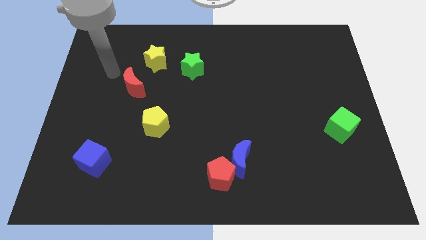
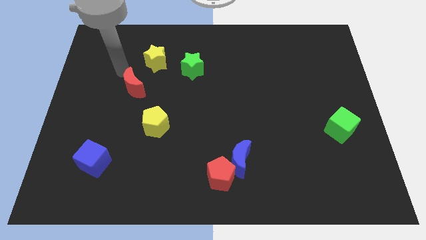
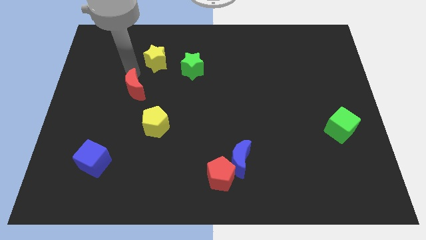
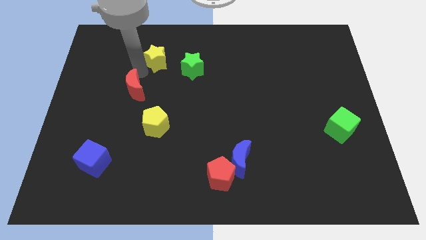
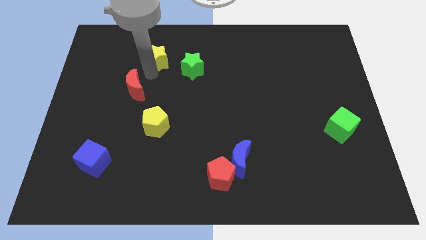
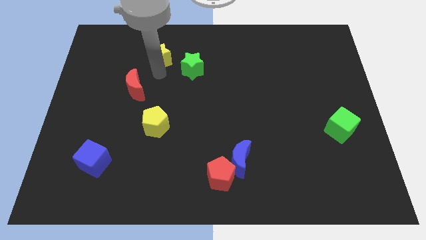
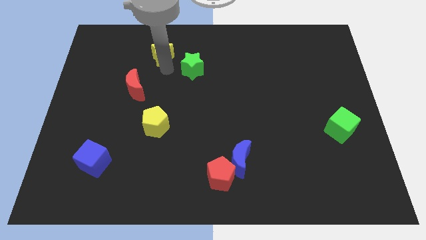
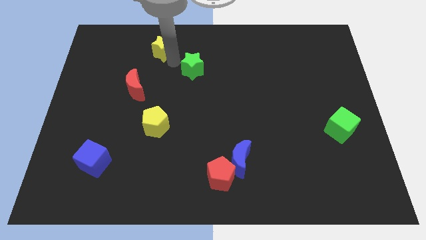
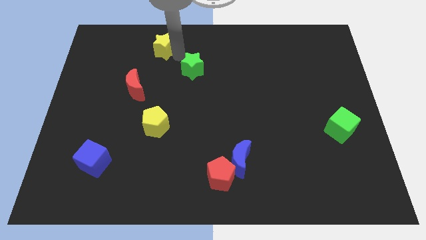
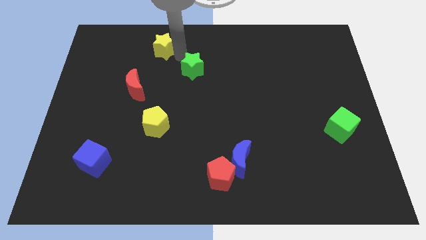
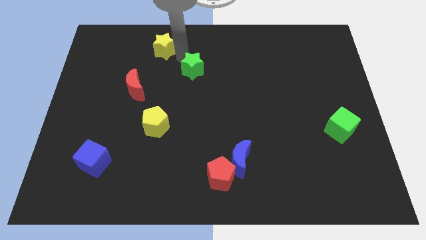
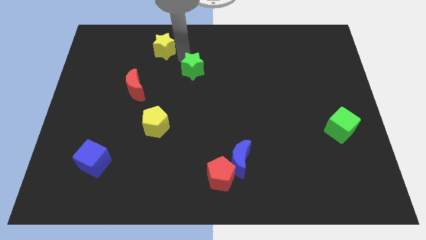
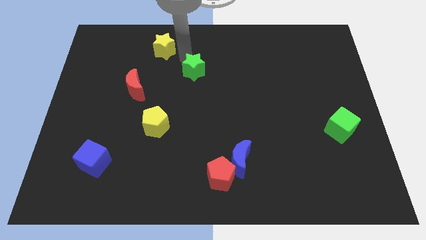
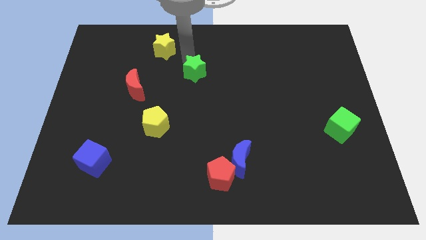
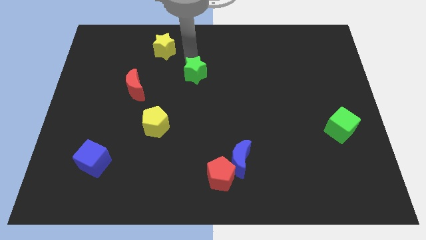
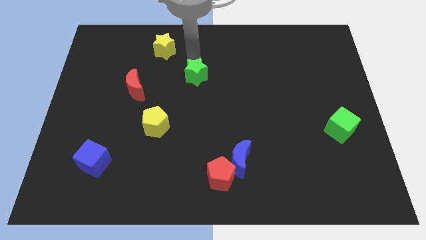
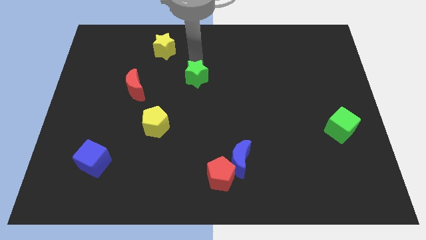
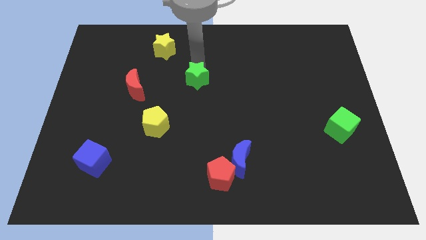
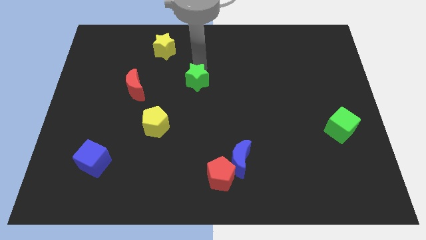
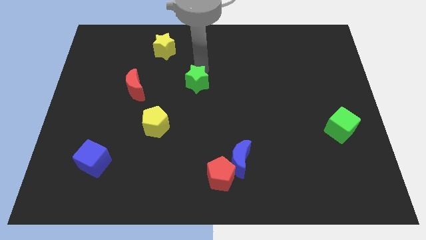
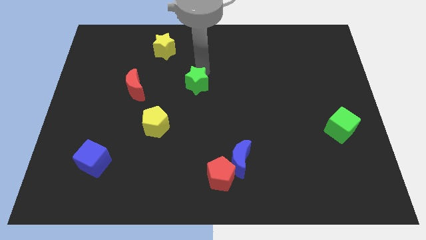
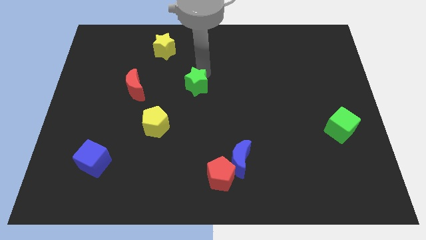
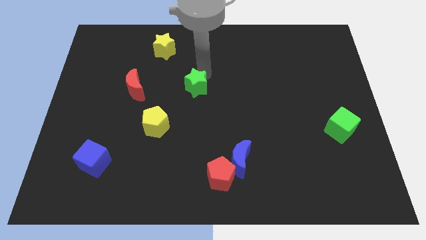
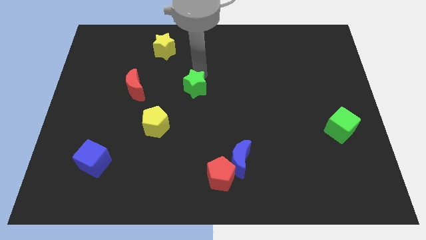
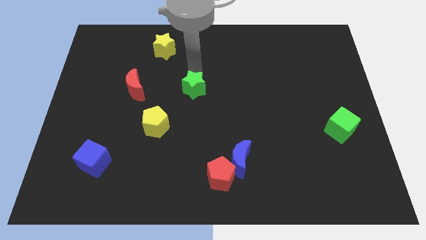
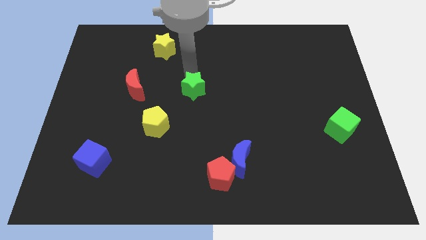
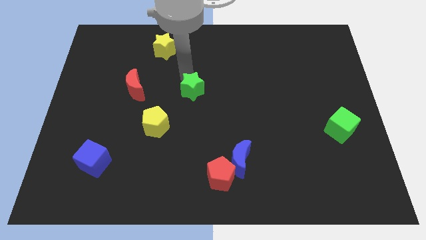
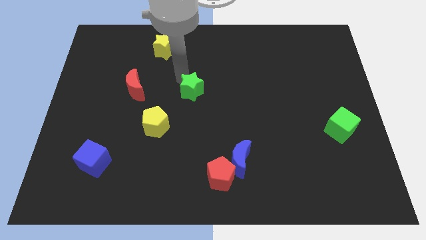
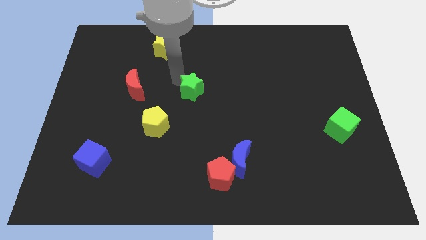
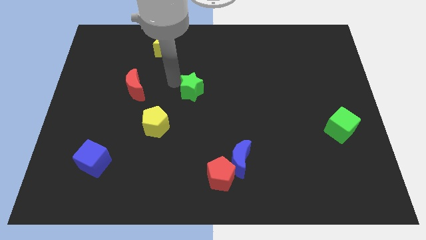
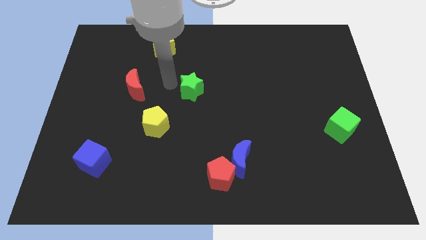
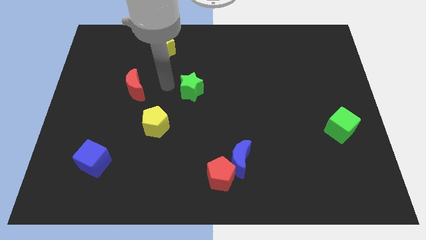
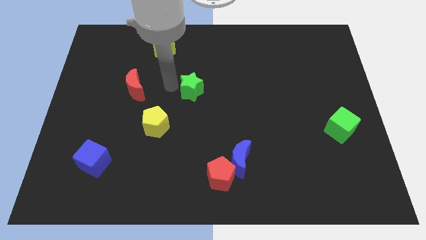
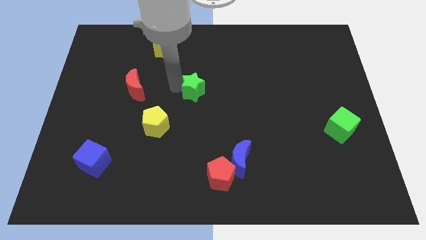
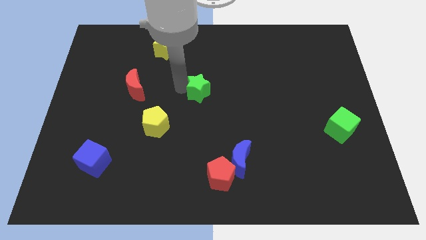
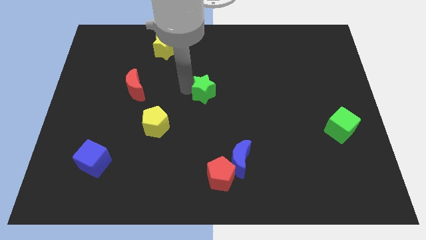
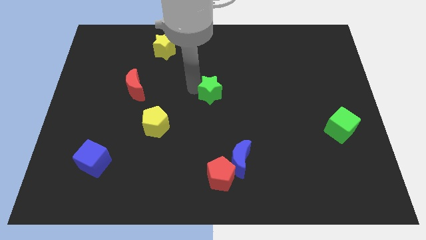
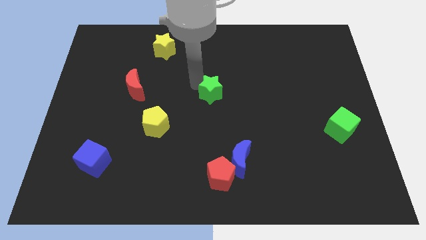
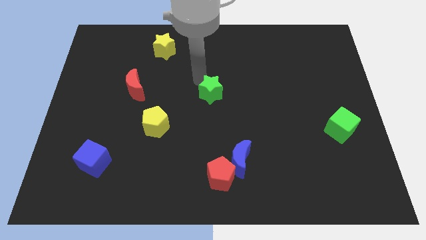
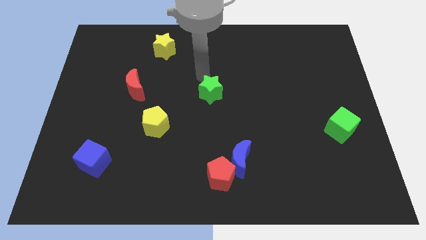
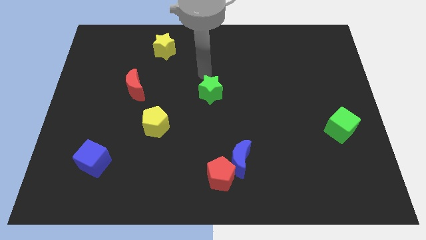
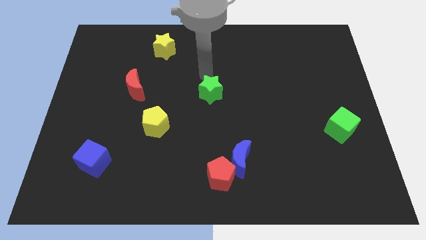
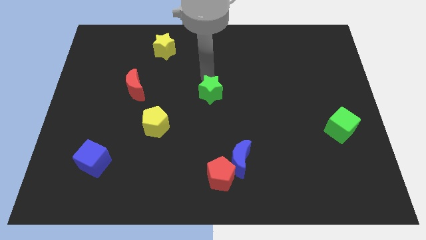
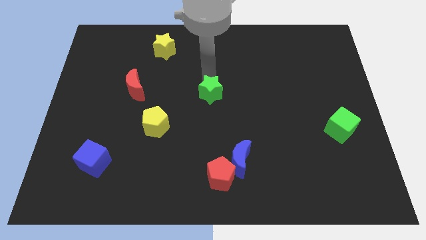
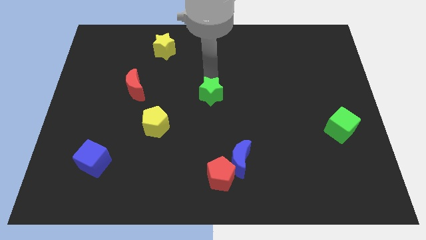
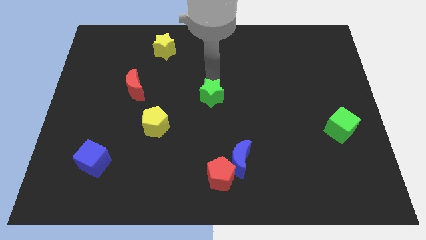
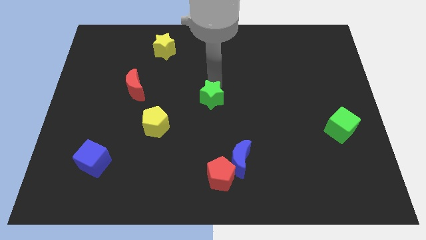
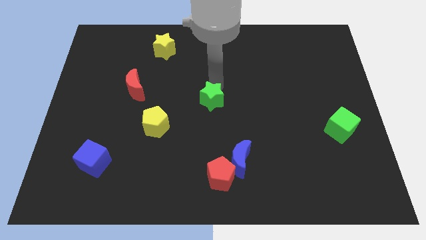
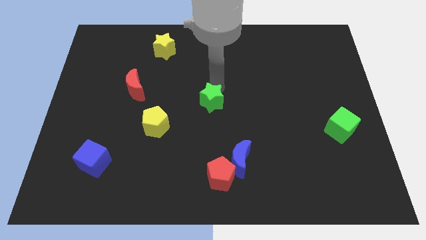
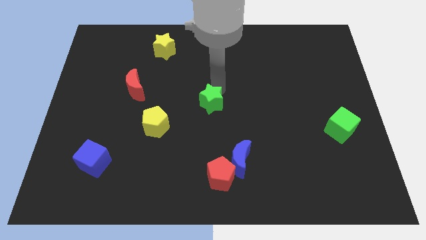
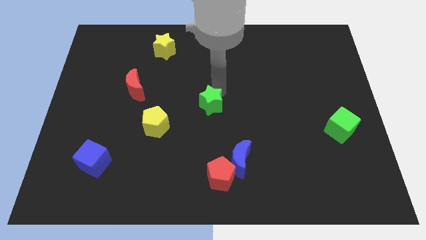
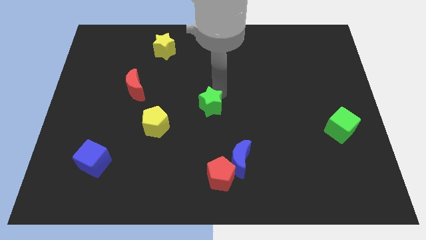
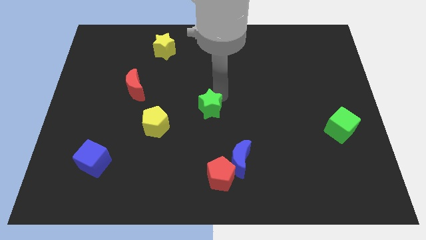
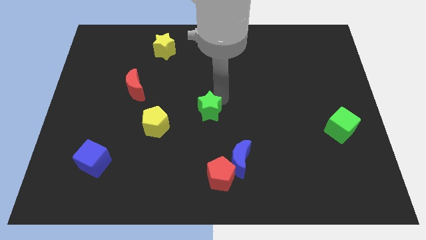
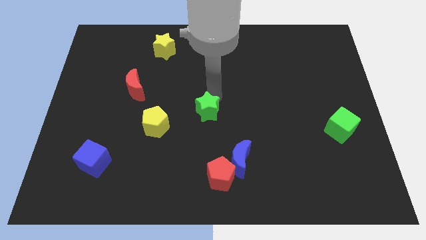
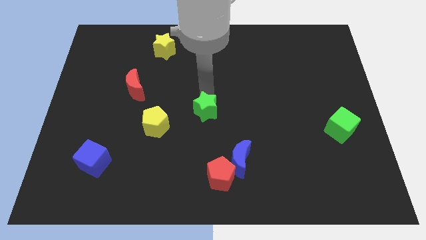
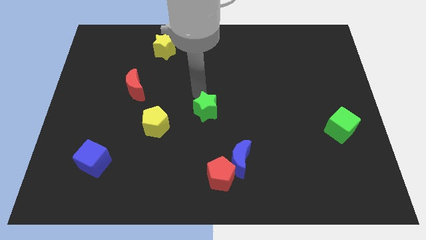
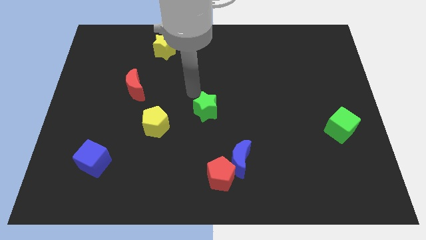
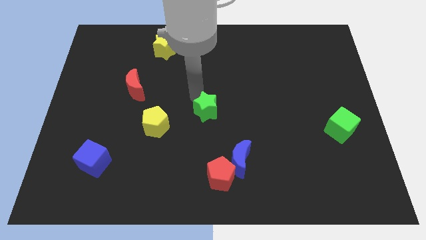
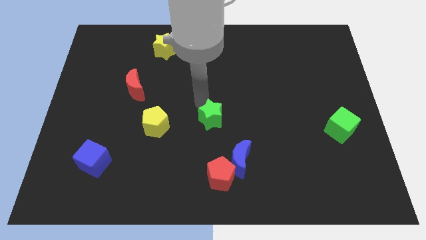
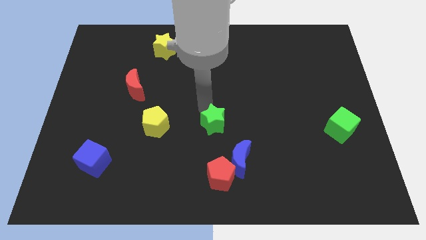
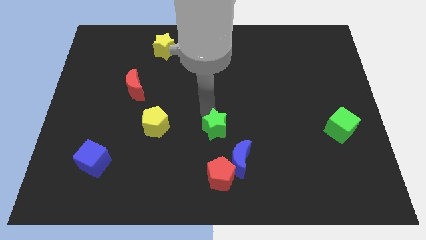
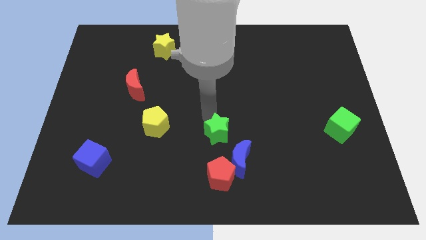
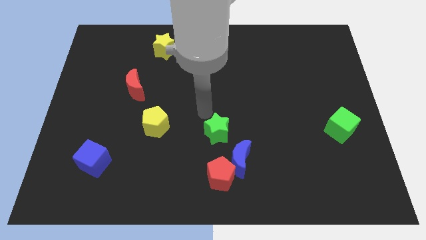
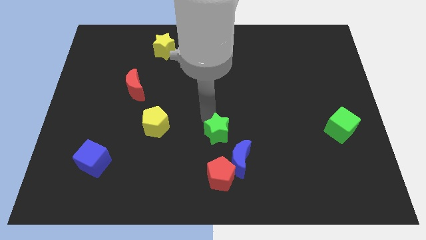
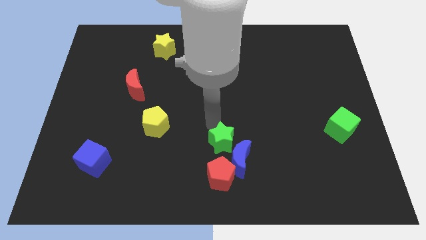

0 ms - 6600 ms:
slide the green star next to the blue moon
